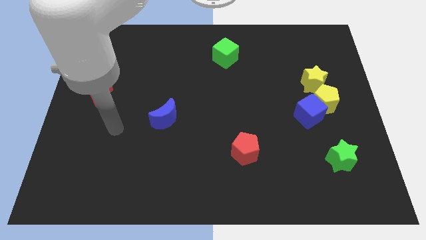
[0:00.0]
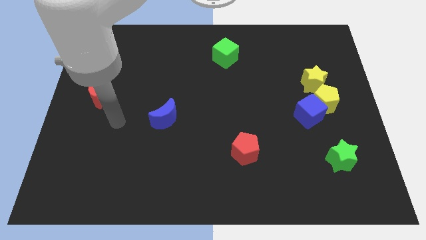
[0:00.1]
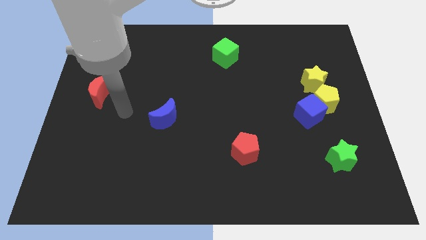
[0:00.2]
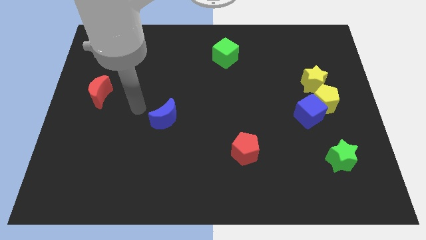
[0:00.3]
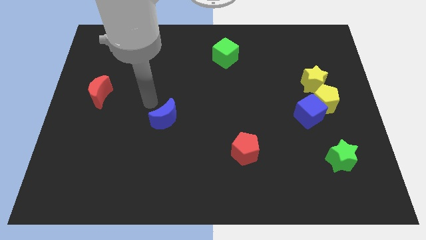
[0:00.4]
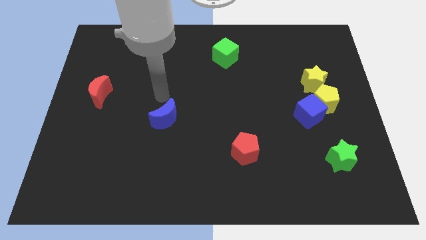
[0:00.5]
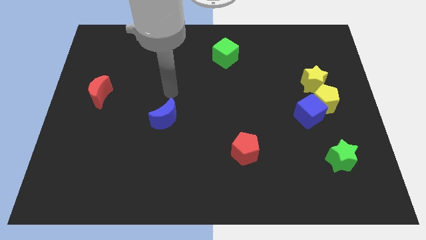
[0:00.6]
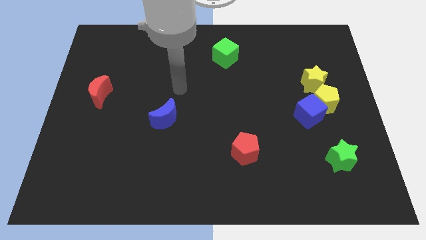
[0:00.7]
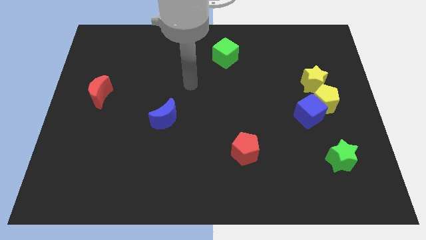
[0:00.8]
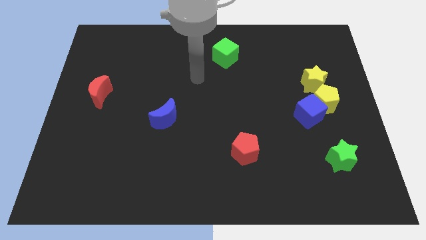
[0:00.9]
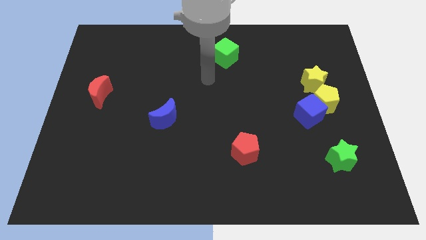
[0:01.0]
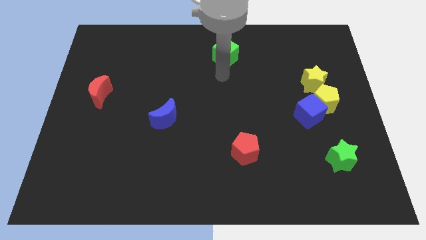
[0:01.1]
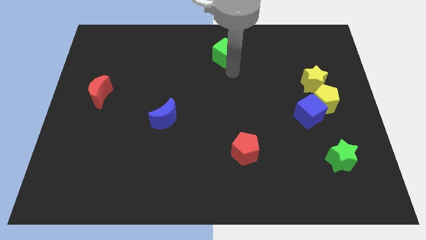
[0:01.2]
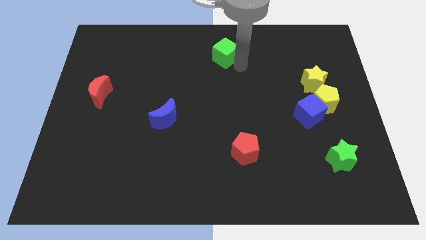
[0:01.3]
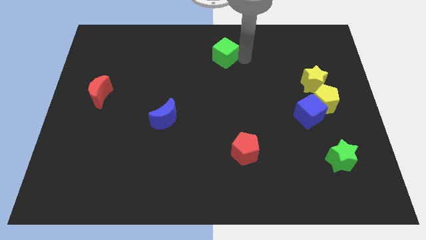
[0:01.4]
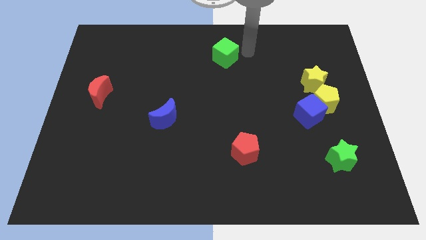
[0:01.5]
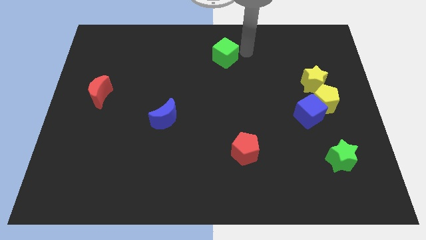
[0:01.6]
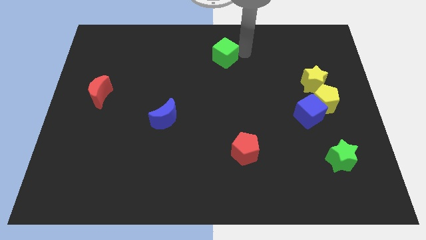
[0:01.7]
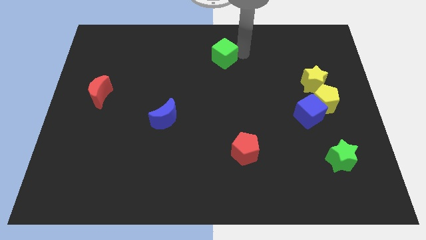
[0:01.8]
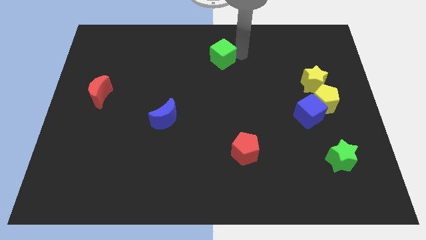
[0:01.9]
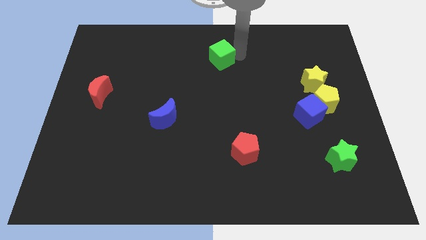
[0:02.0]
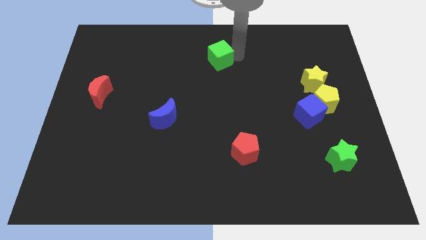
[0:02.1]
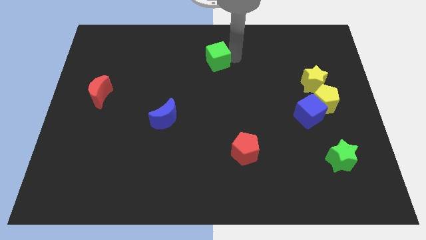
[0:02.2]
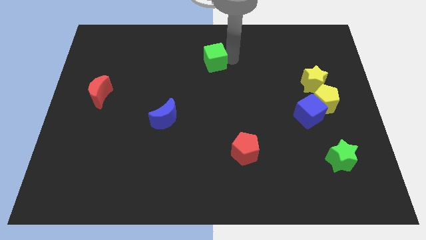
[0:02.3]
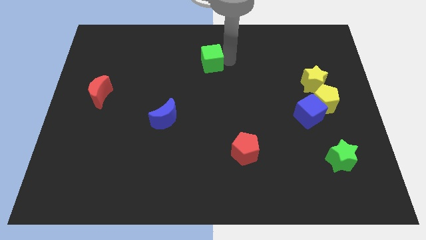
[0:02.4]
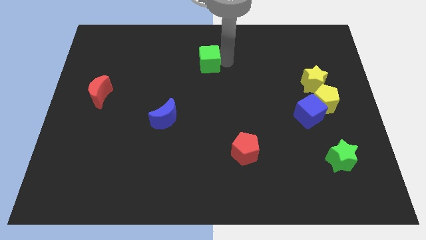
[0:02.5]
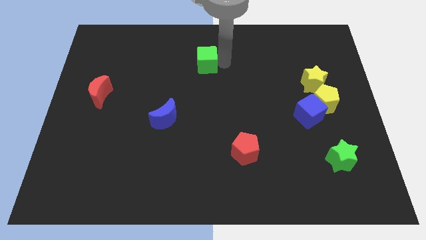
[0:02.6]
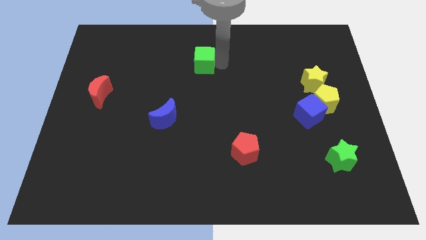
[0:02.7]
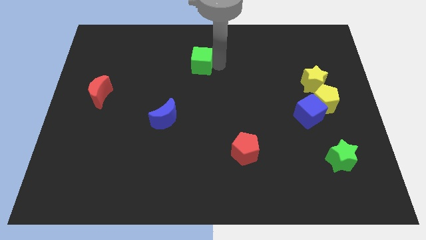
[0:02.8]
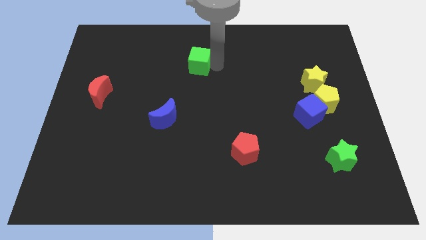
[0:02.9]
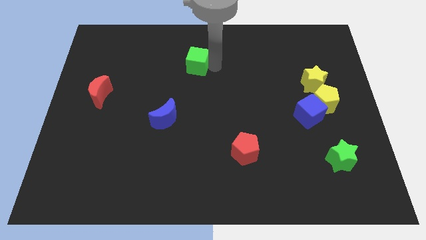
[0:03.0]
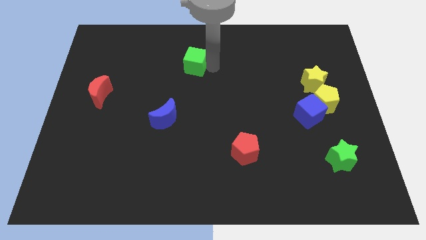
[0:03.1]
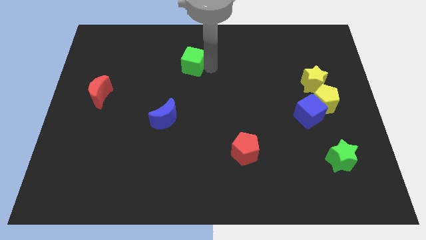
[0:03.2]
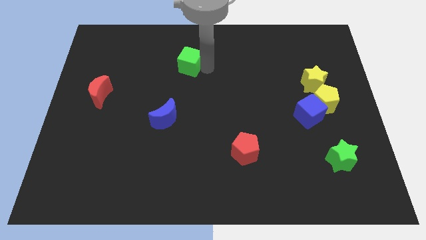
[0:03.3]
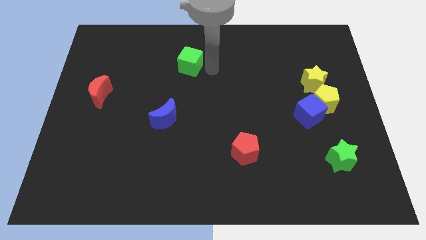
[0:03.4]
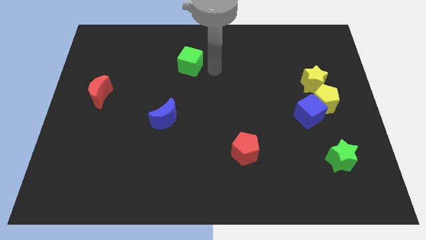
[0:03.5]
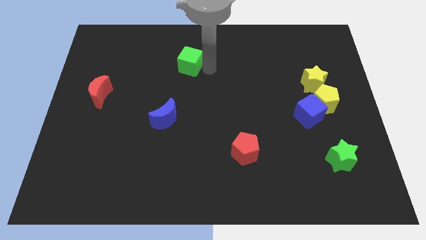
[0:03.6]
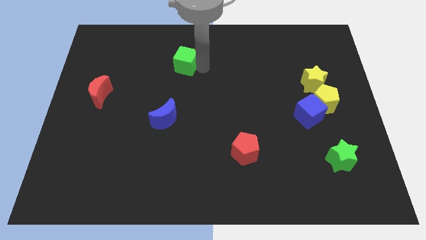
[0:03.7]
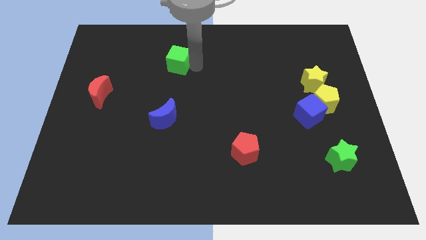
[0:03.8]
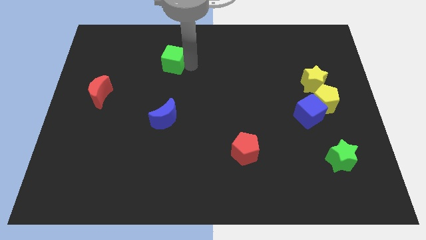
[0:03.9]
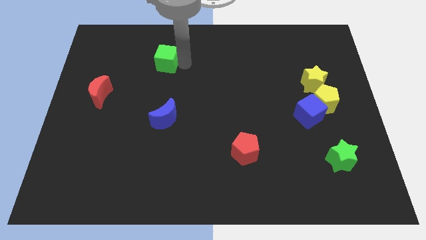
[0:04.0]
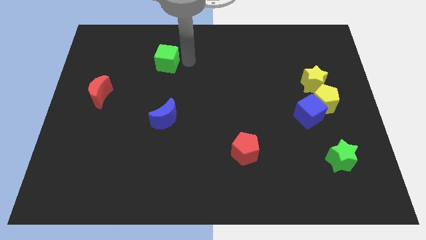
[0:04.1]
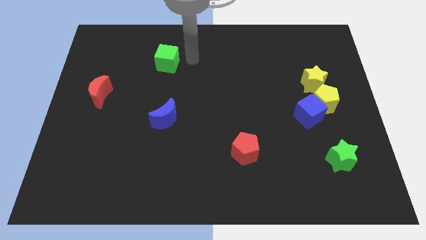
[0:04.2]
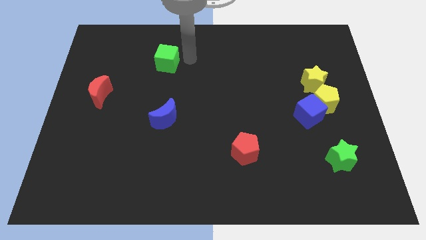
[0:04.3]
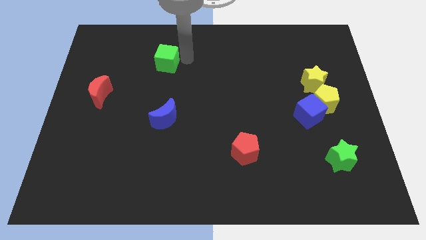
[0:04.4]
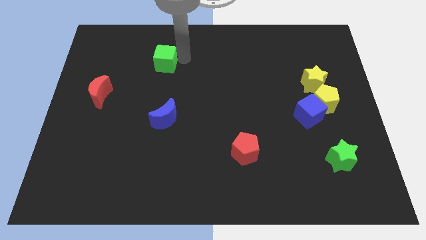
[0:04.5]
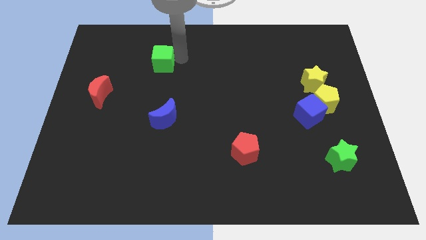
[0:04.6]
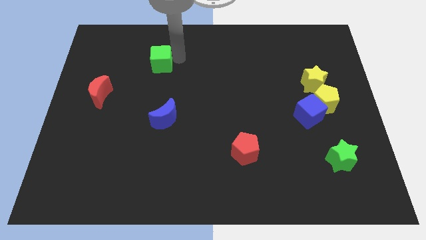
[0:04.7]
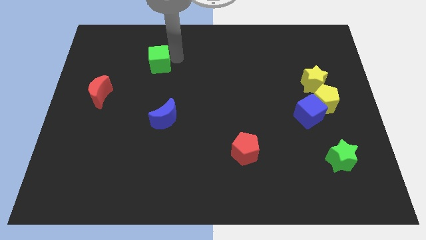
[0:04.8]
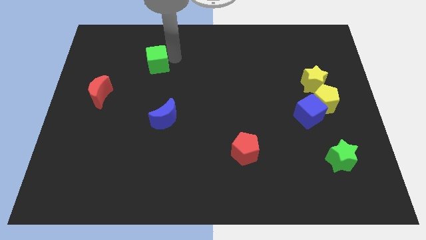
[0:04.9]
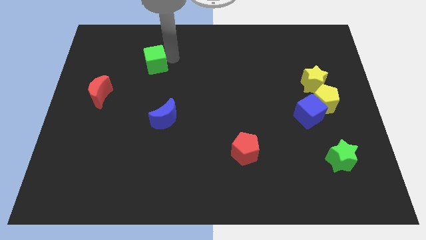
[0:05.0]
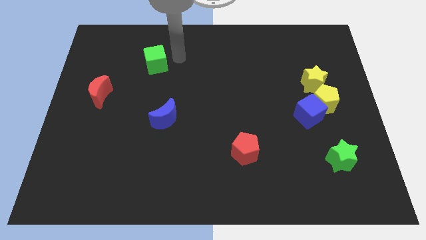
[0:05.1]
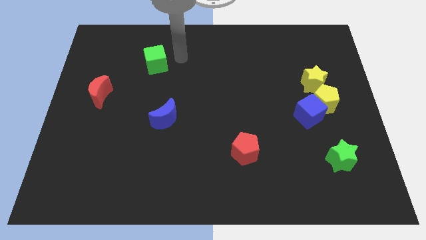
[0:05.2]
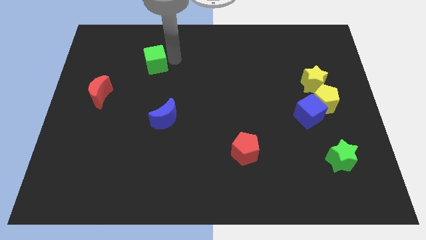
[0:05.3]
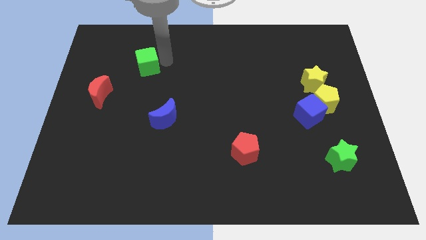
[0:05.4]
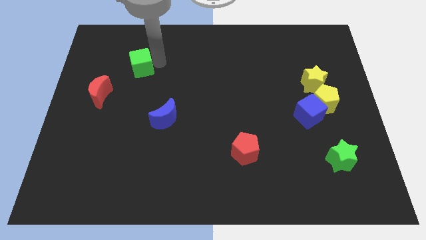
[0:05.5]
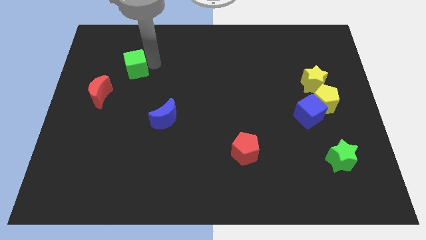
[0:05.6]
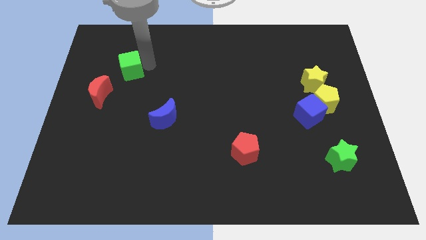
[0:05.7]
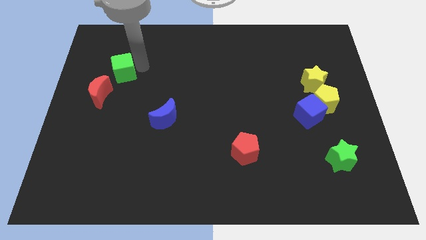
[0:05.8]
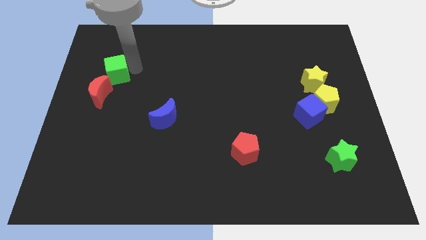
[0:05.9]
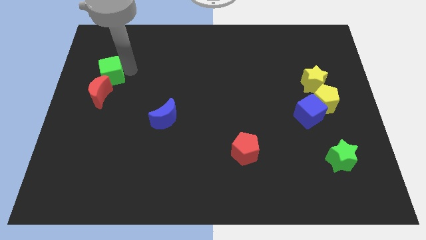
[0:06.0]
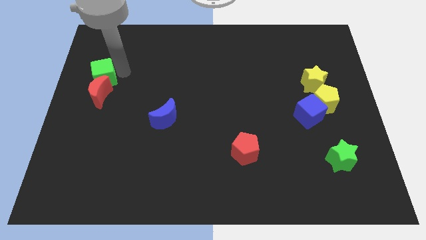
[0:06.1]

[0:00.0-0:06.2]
put the green cube to the left side of the board

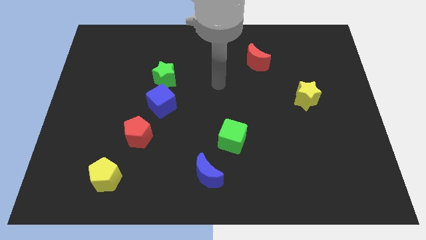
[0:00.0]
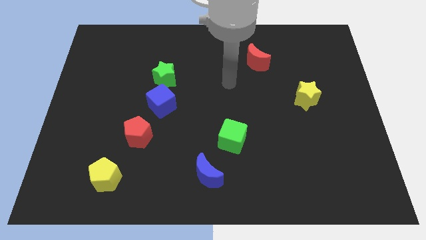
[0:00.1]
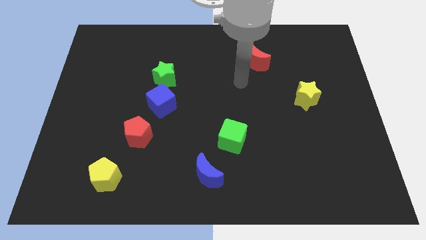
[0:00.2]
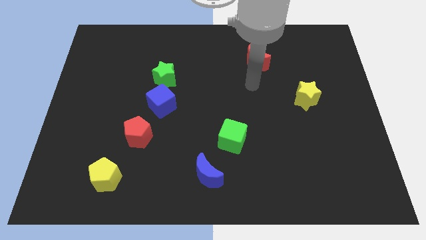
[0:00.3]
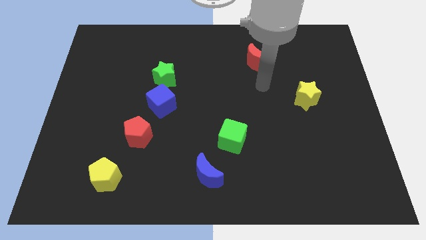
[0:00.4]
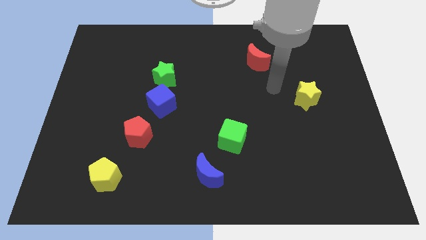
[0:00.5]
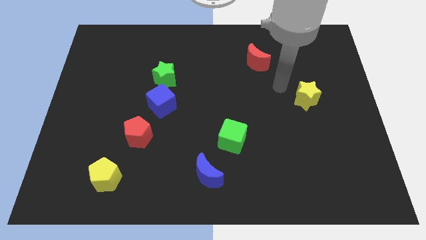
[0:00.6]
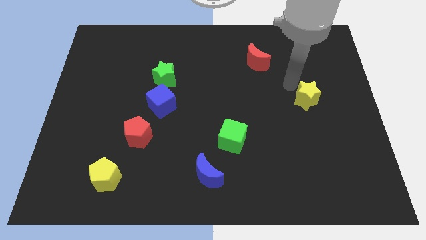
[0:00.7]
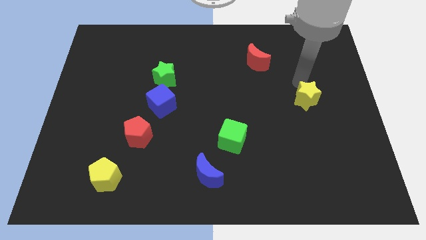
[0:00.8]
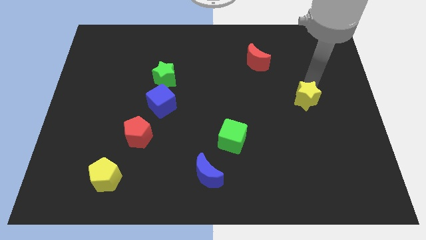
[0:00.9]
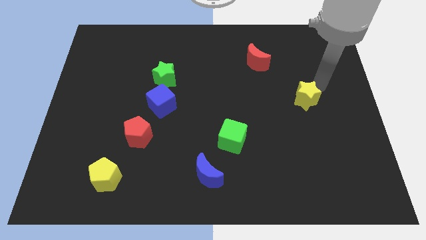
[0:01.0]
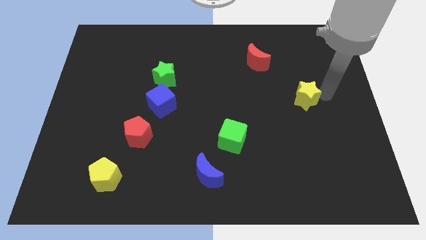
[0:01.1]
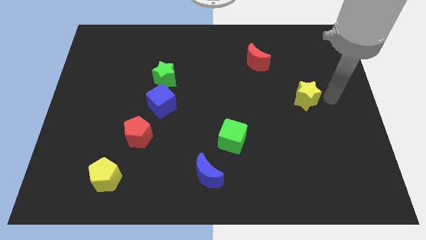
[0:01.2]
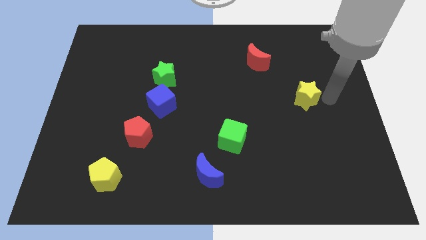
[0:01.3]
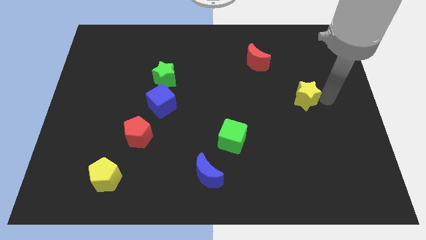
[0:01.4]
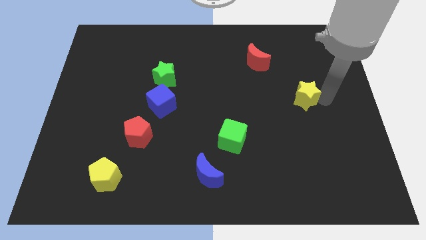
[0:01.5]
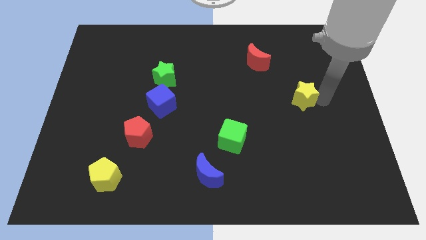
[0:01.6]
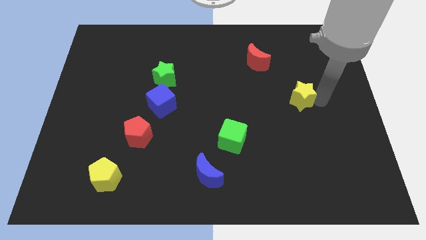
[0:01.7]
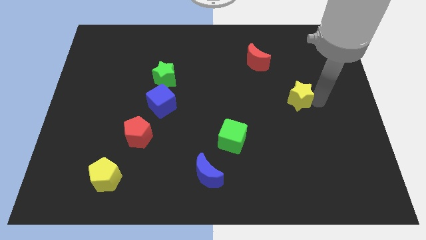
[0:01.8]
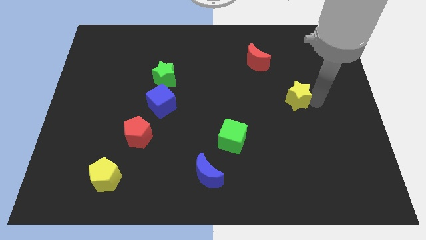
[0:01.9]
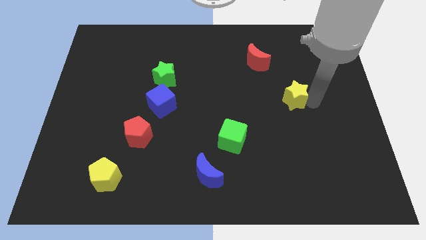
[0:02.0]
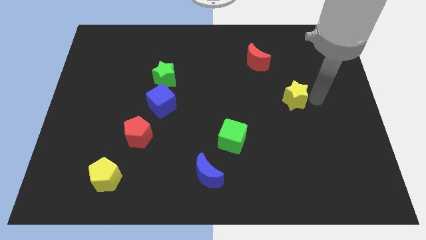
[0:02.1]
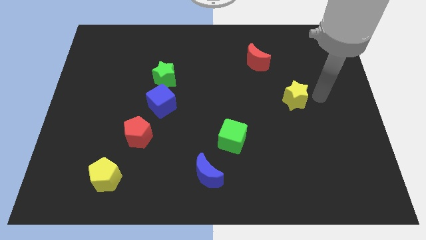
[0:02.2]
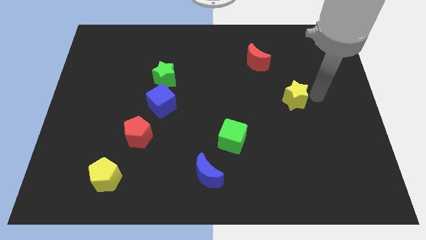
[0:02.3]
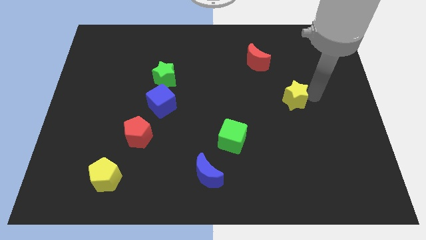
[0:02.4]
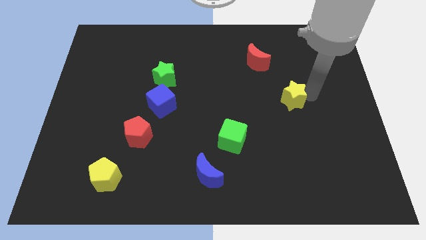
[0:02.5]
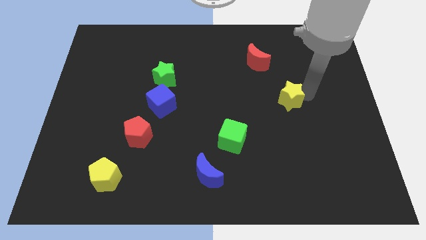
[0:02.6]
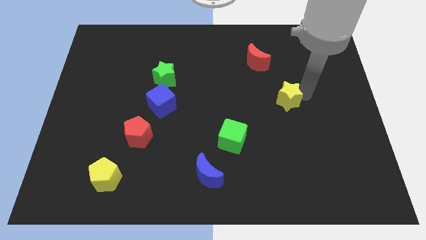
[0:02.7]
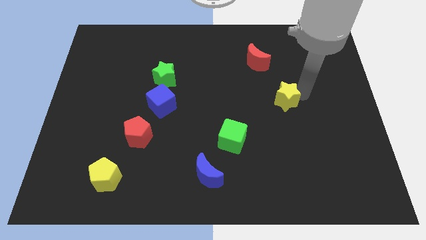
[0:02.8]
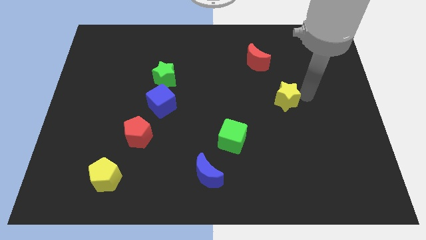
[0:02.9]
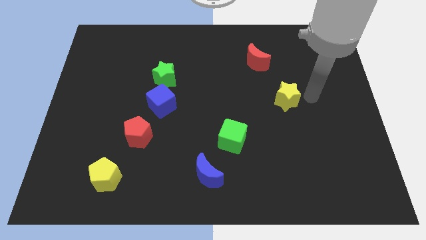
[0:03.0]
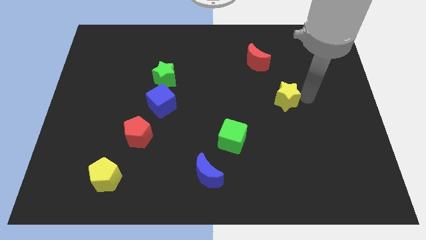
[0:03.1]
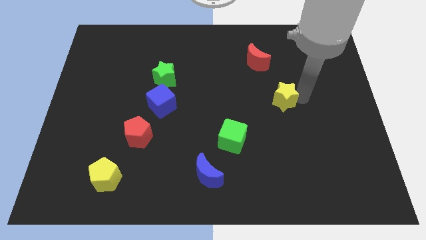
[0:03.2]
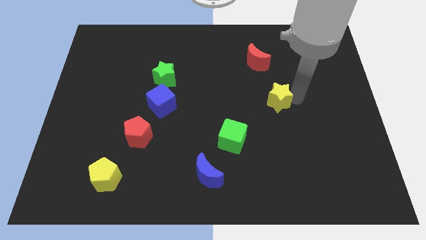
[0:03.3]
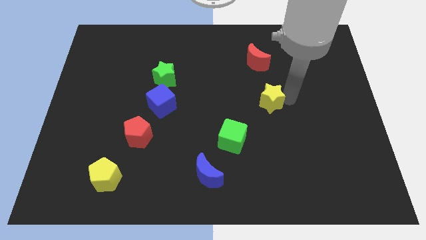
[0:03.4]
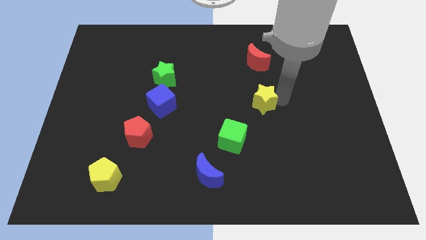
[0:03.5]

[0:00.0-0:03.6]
move the yellow star to the middle
